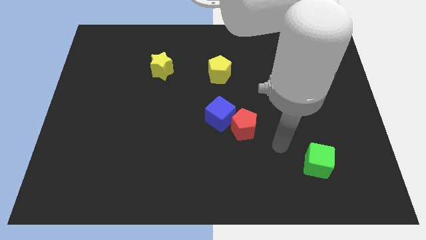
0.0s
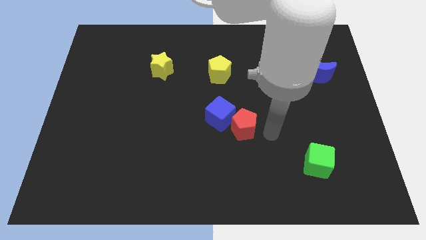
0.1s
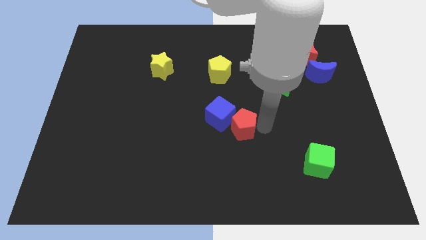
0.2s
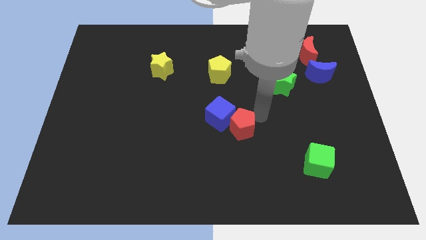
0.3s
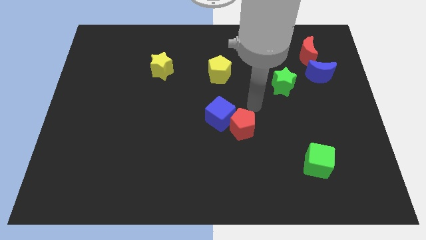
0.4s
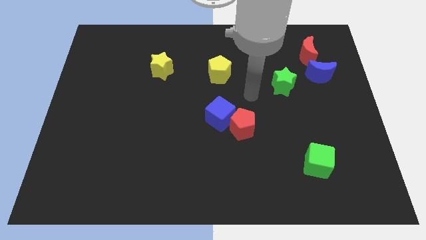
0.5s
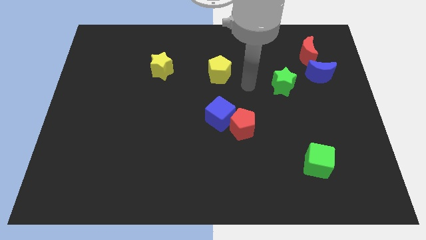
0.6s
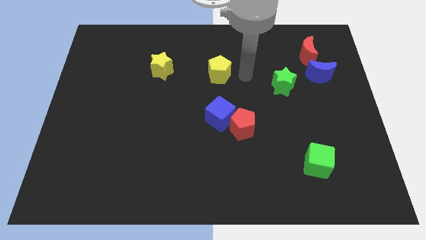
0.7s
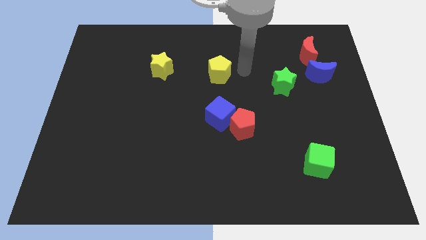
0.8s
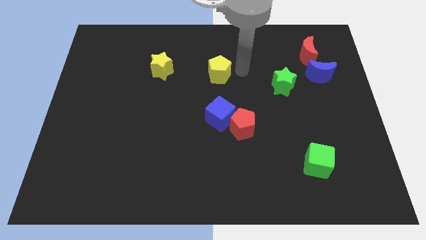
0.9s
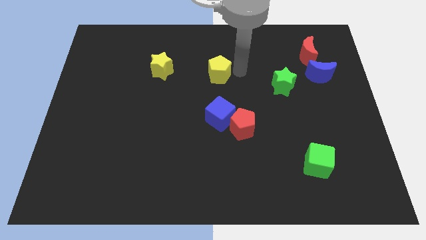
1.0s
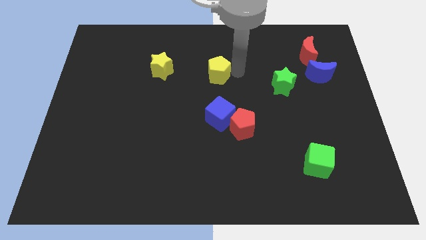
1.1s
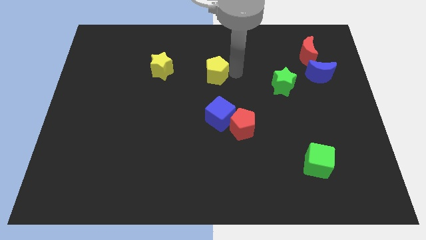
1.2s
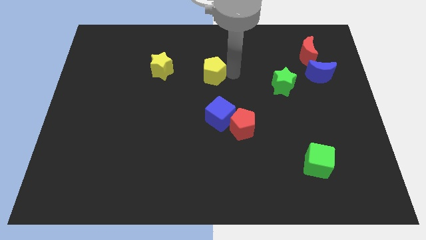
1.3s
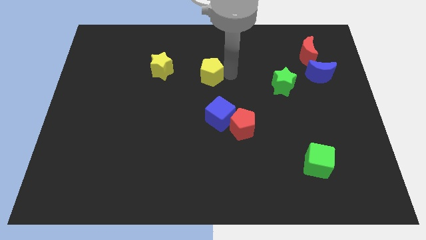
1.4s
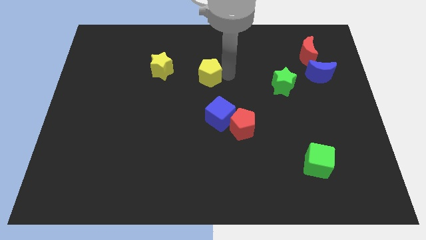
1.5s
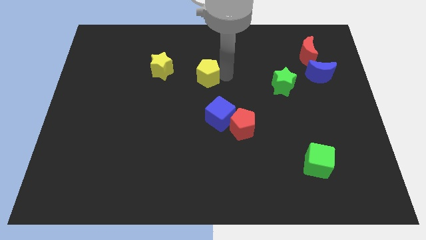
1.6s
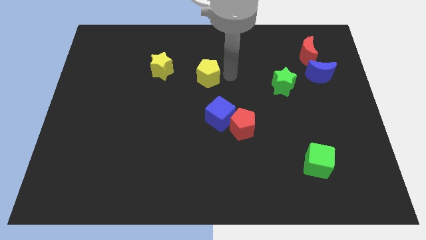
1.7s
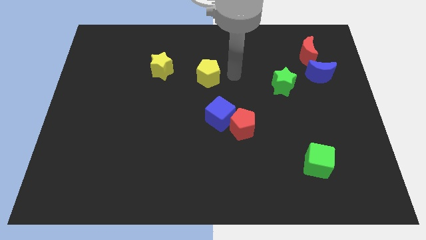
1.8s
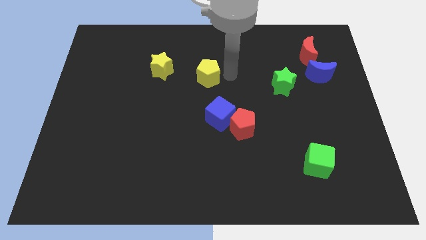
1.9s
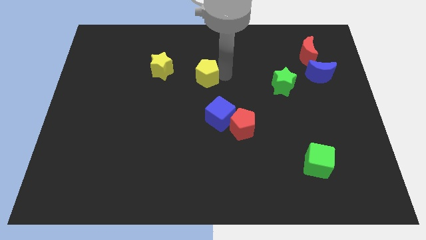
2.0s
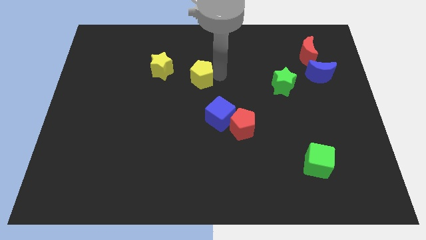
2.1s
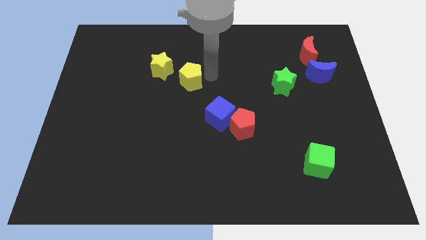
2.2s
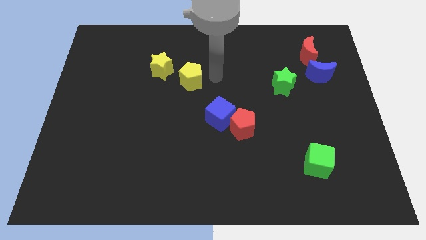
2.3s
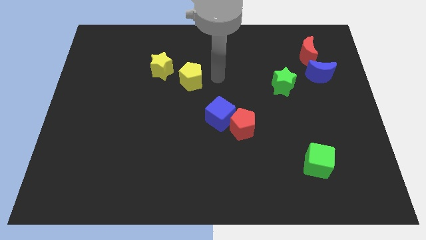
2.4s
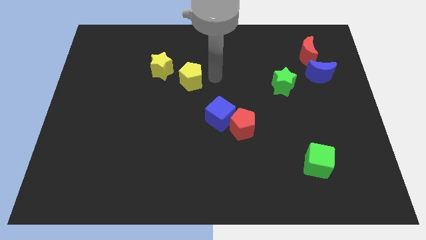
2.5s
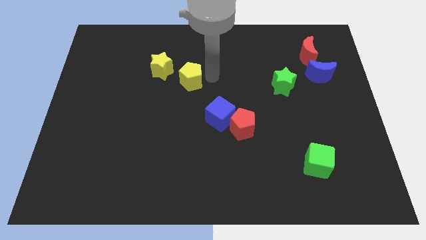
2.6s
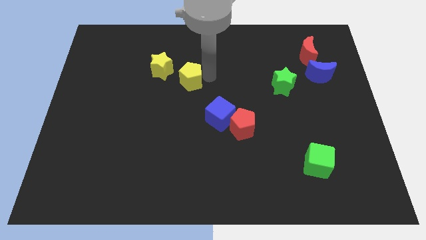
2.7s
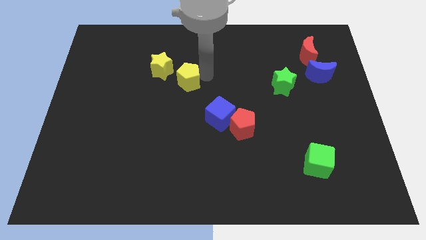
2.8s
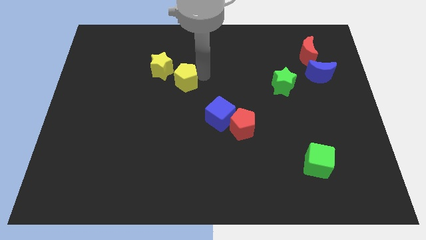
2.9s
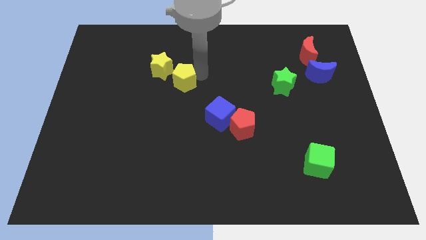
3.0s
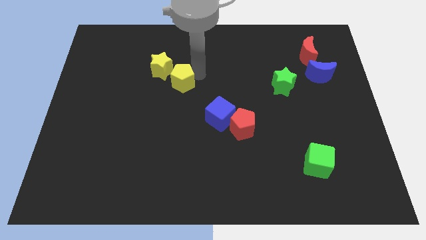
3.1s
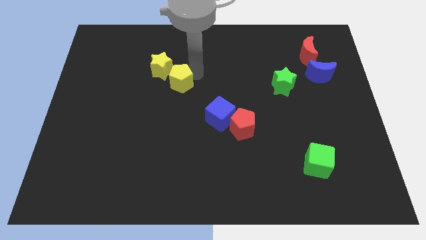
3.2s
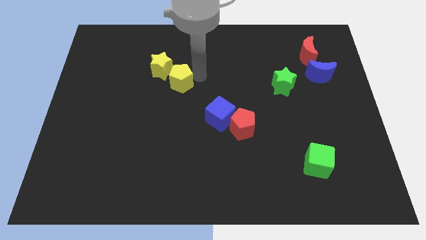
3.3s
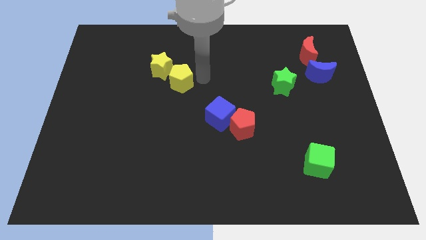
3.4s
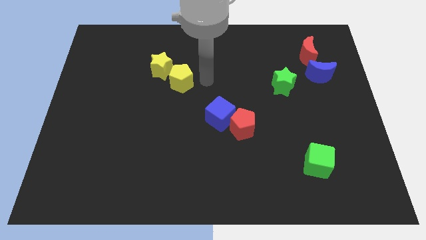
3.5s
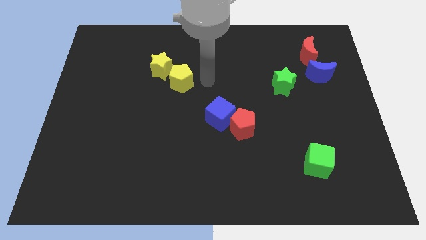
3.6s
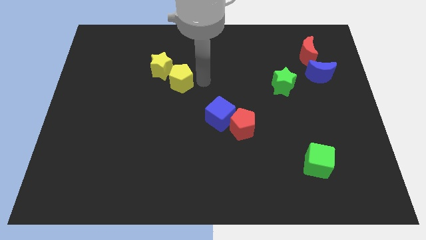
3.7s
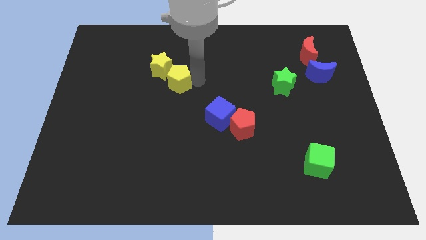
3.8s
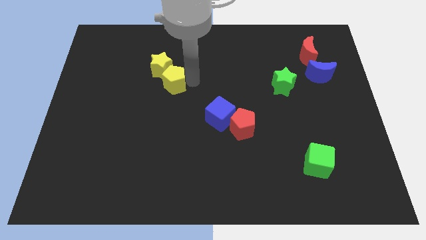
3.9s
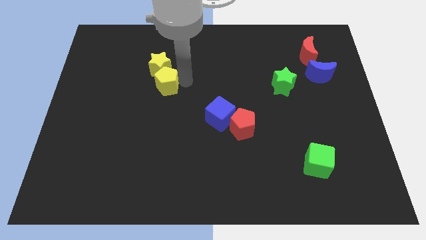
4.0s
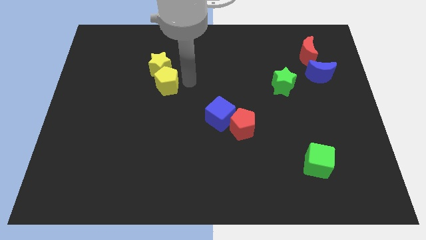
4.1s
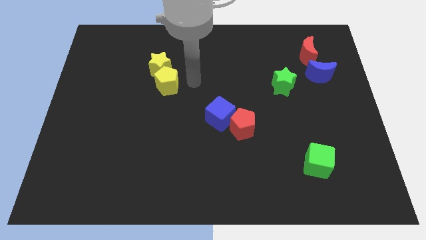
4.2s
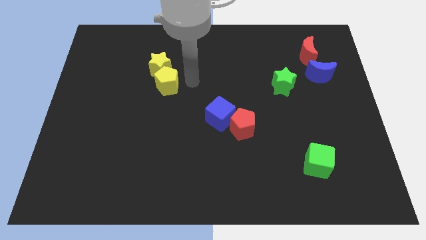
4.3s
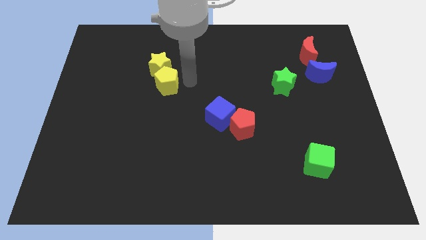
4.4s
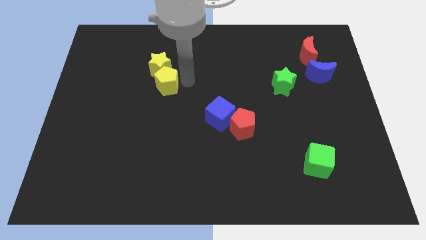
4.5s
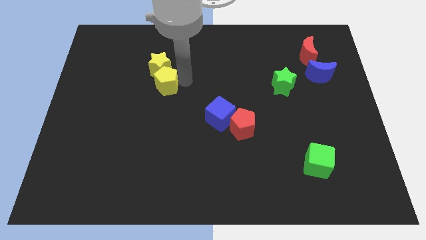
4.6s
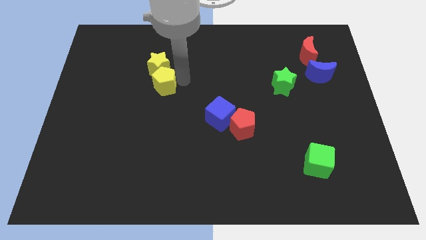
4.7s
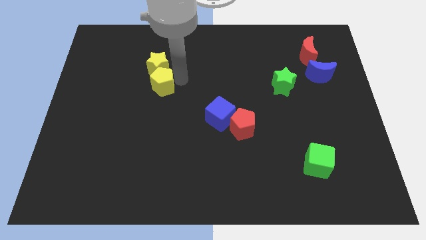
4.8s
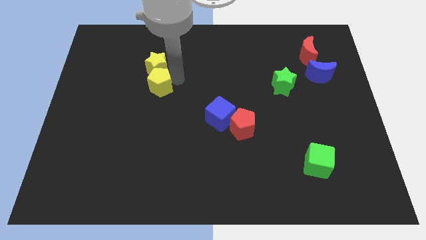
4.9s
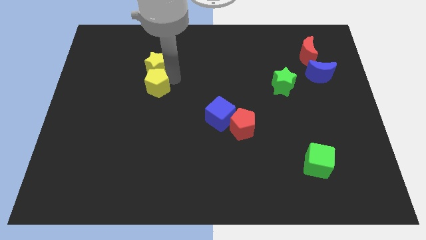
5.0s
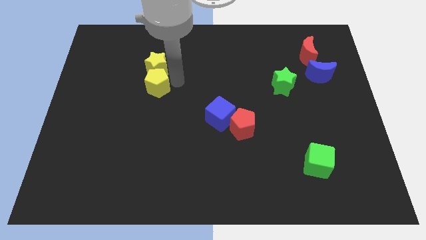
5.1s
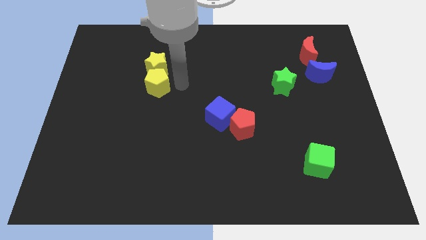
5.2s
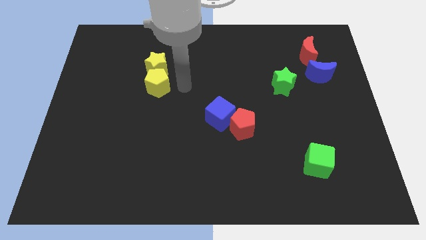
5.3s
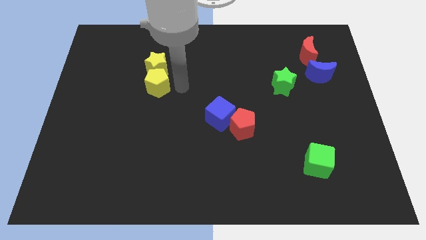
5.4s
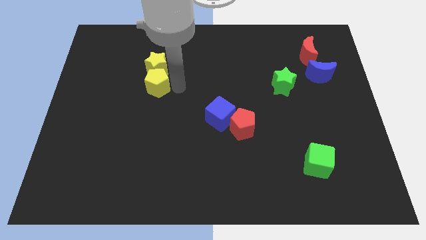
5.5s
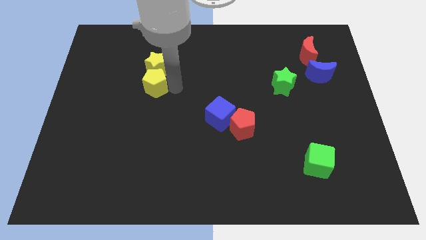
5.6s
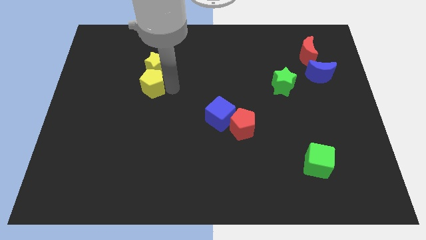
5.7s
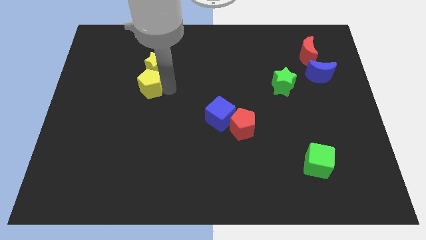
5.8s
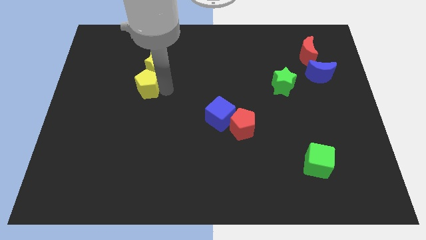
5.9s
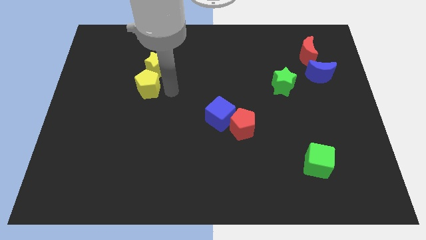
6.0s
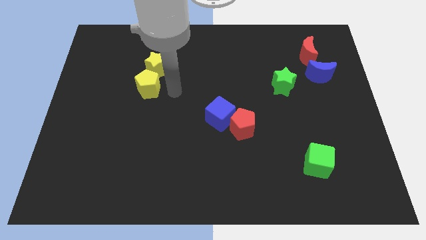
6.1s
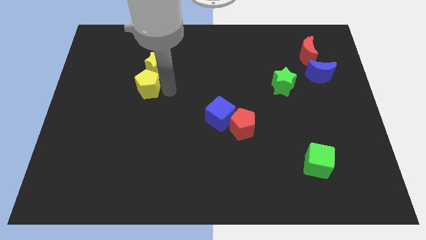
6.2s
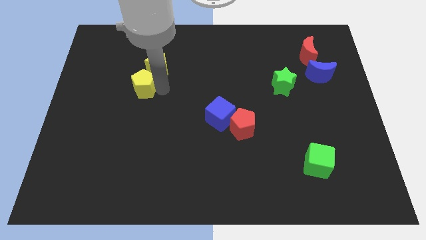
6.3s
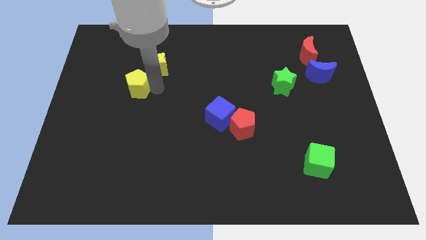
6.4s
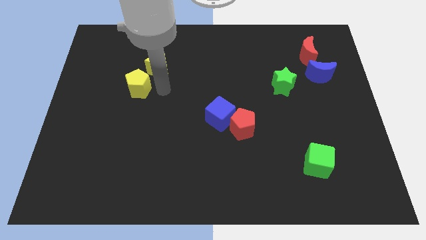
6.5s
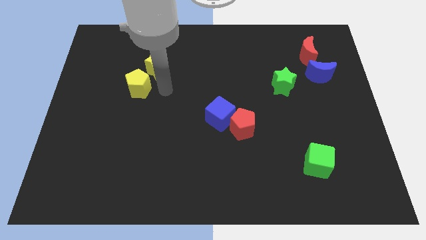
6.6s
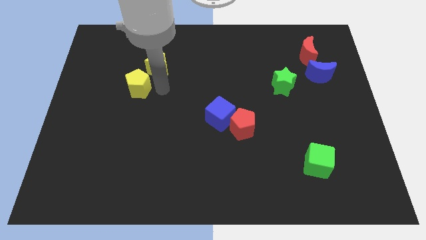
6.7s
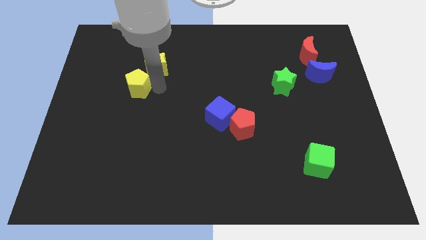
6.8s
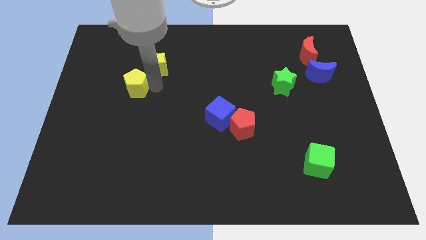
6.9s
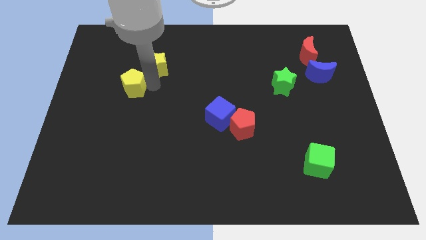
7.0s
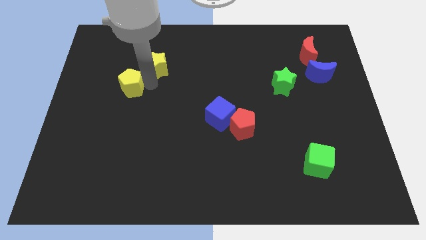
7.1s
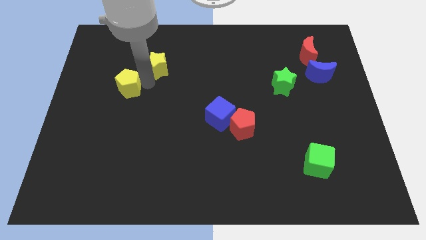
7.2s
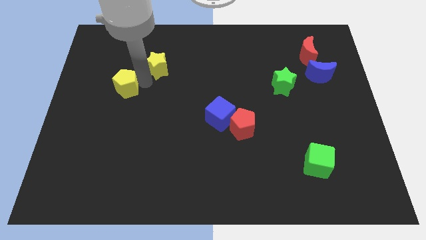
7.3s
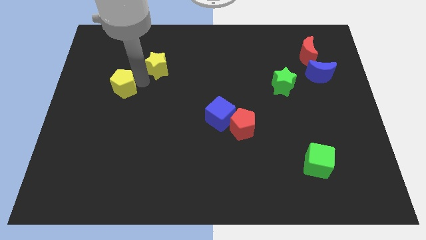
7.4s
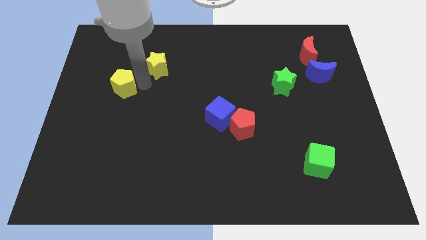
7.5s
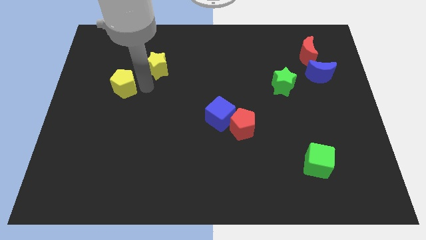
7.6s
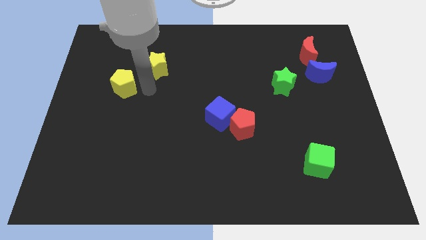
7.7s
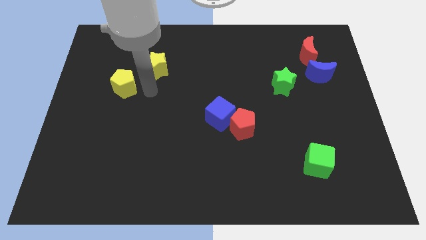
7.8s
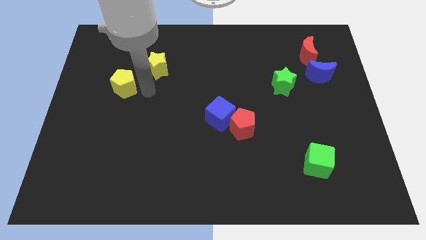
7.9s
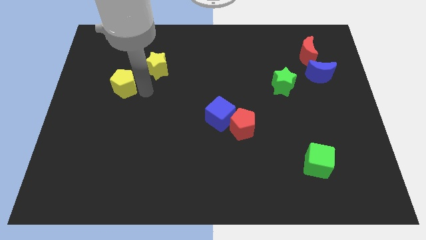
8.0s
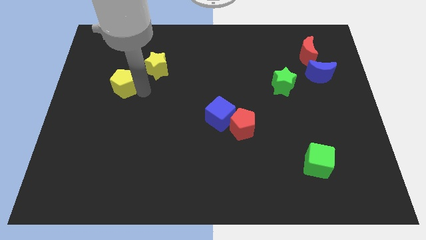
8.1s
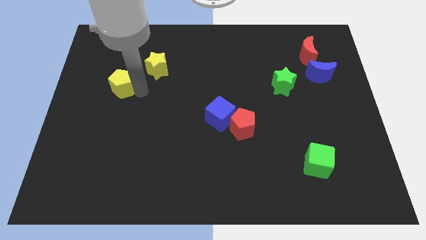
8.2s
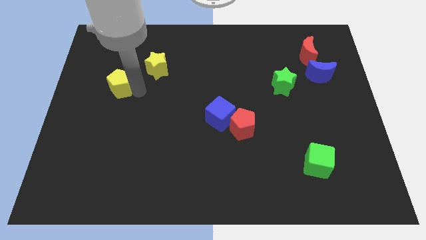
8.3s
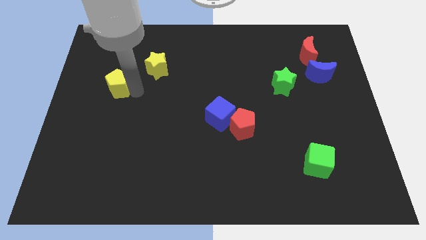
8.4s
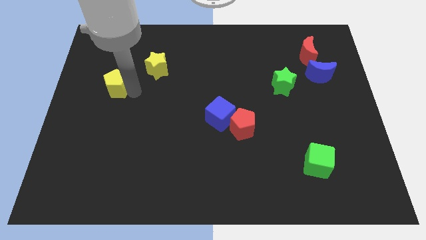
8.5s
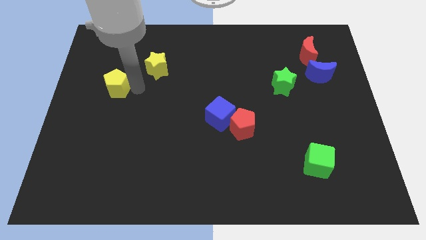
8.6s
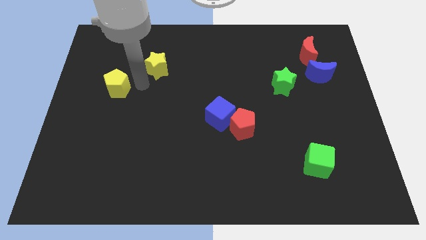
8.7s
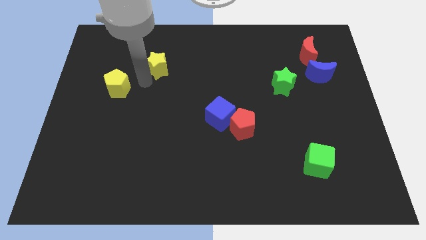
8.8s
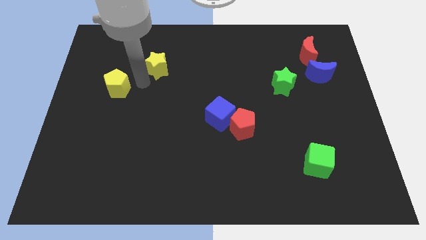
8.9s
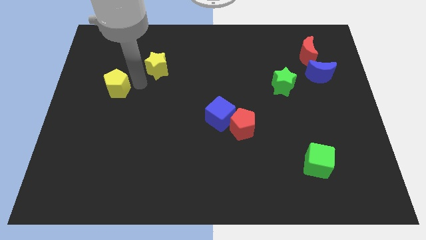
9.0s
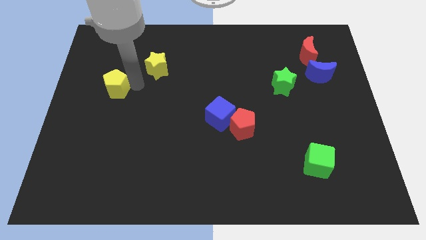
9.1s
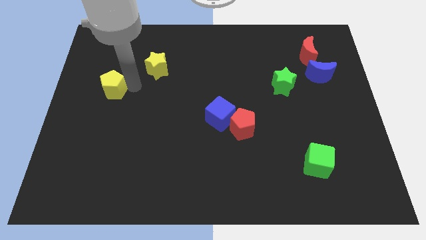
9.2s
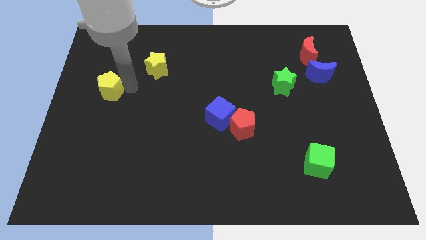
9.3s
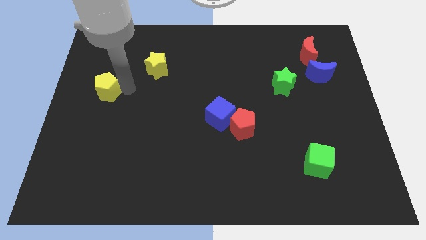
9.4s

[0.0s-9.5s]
push the yellow pentagon to the center left
